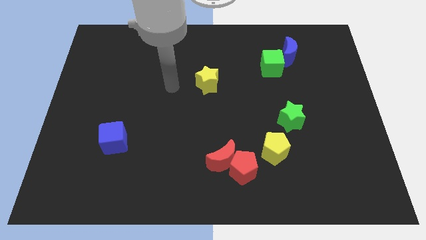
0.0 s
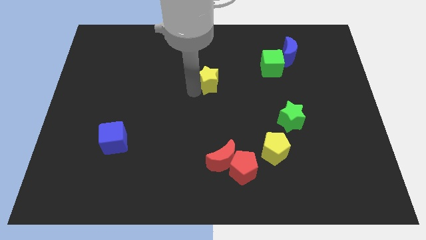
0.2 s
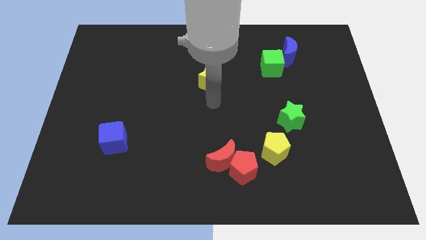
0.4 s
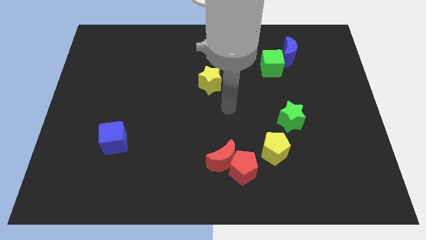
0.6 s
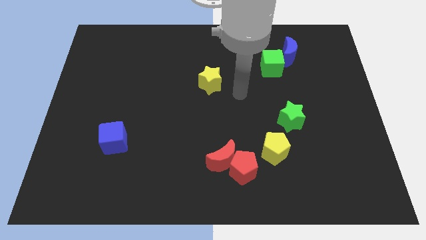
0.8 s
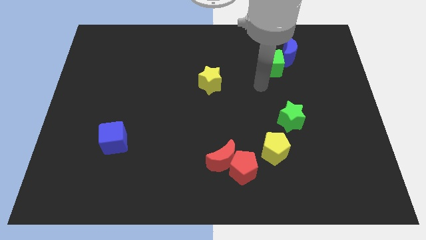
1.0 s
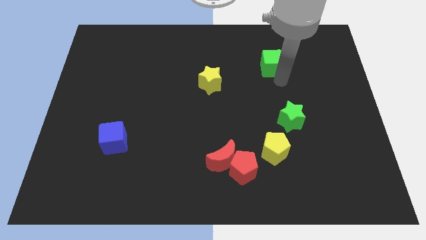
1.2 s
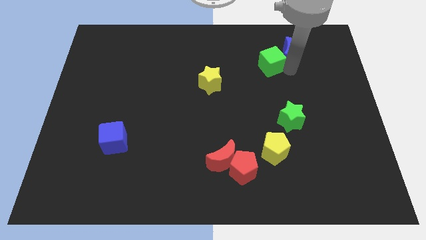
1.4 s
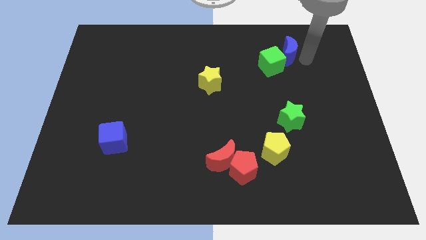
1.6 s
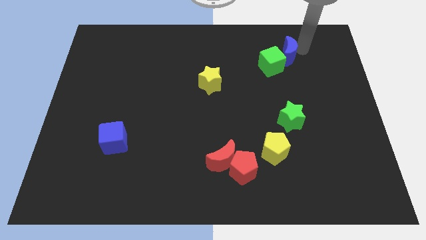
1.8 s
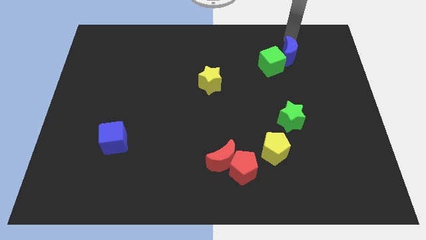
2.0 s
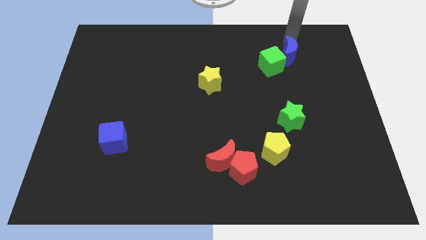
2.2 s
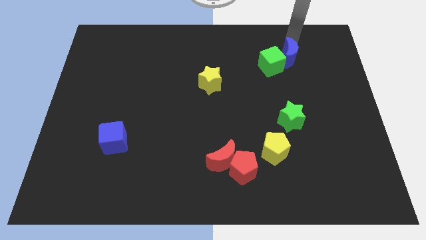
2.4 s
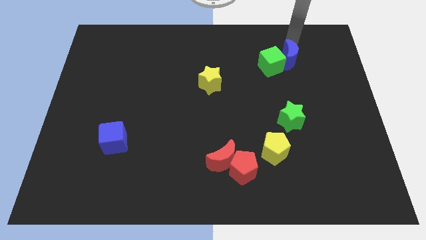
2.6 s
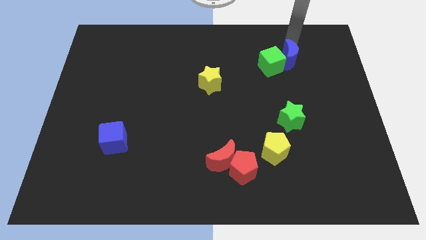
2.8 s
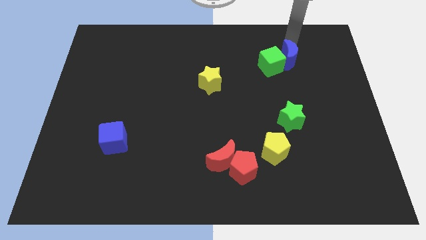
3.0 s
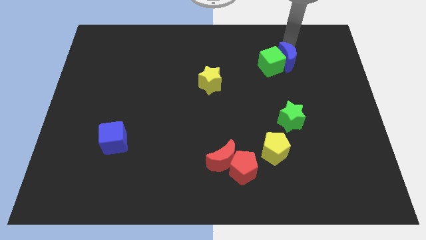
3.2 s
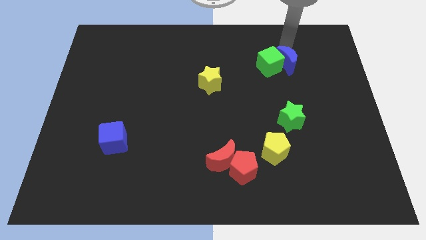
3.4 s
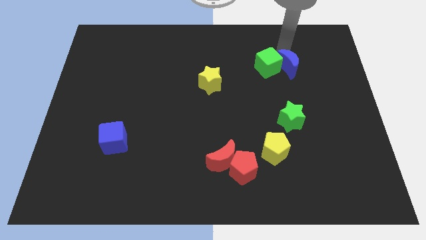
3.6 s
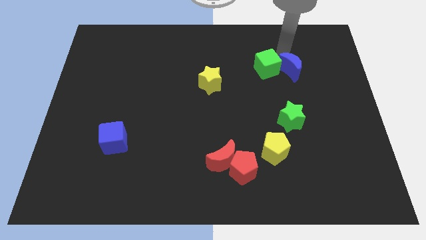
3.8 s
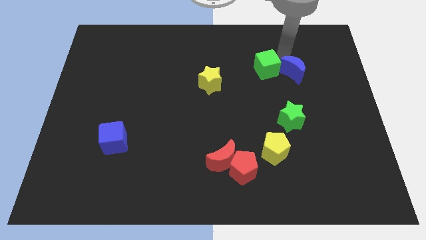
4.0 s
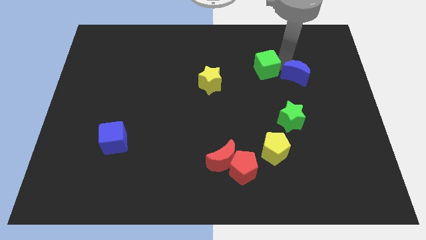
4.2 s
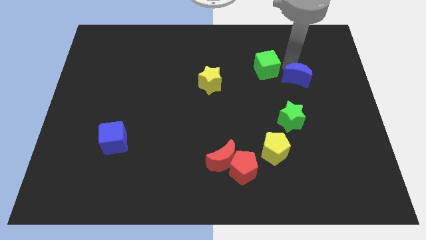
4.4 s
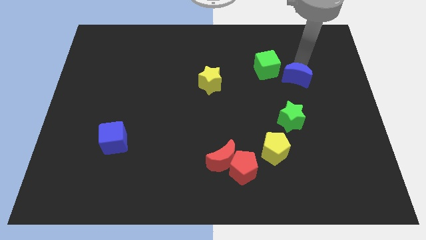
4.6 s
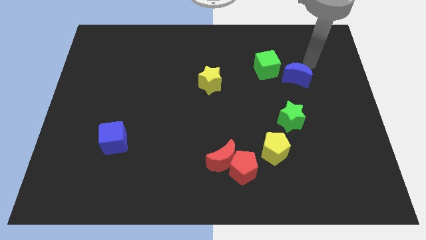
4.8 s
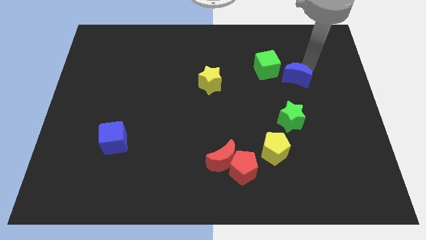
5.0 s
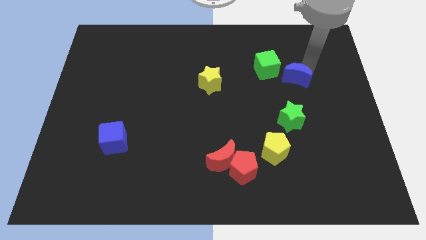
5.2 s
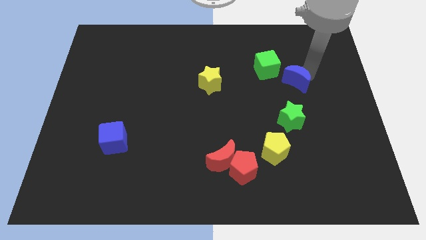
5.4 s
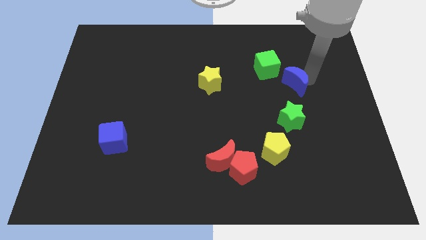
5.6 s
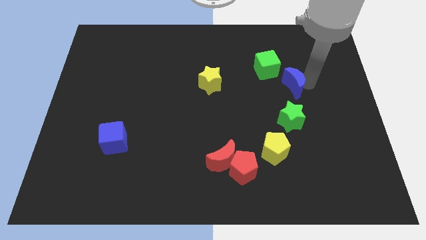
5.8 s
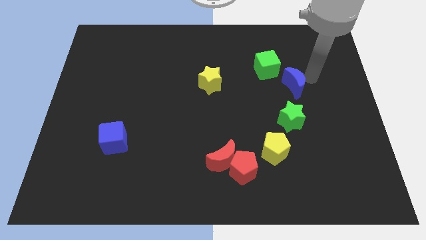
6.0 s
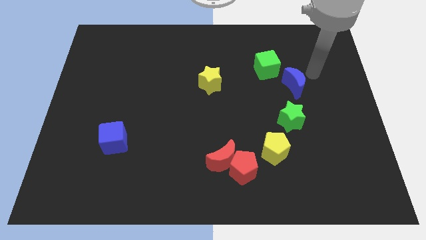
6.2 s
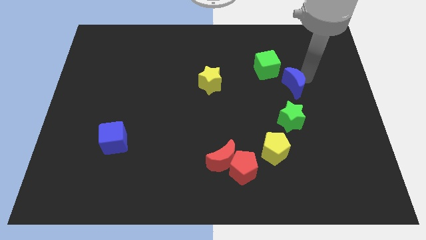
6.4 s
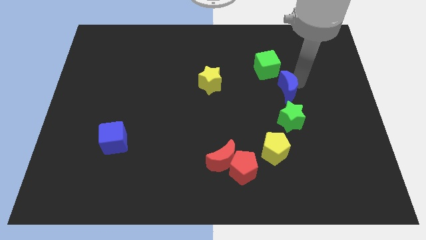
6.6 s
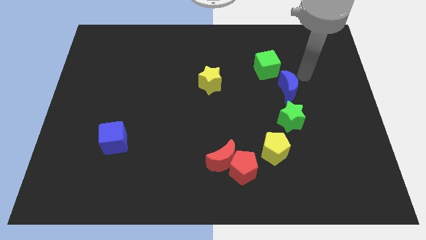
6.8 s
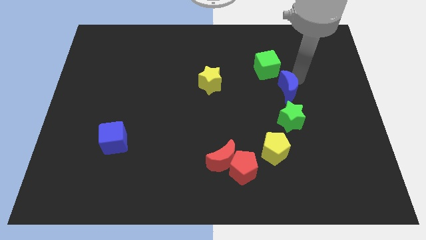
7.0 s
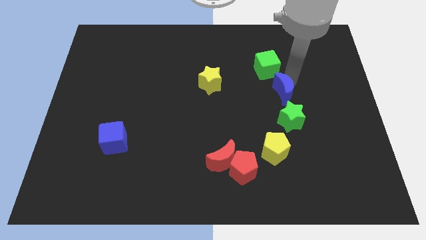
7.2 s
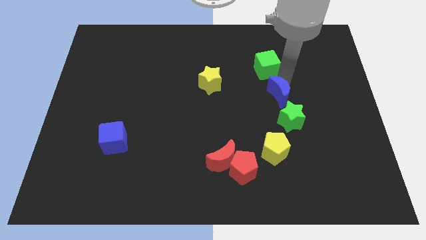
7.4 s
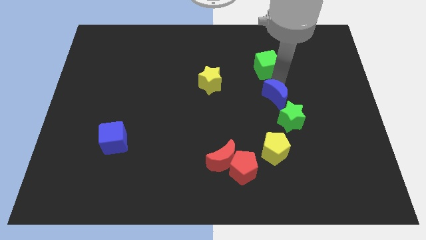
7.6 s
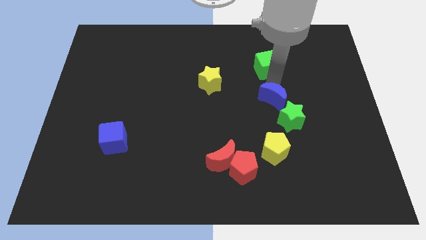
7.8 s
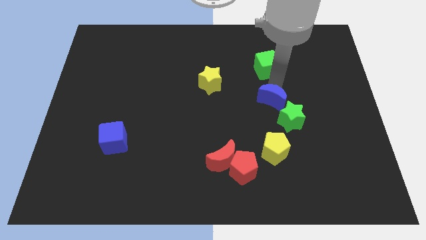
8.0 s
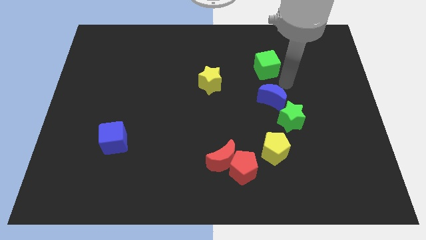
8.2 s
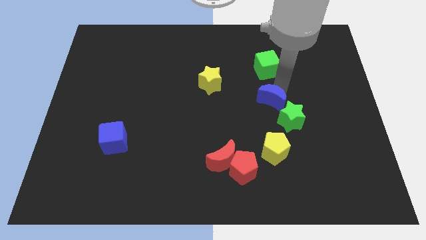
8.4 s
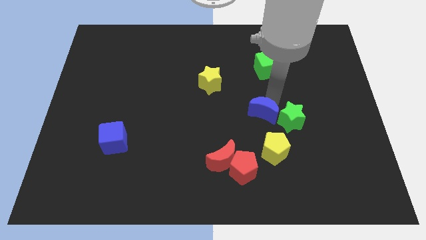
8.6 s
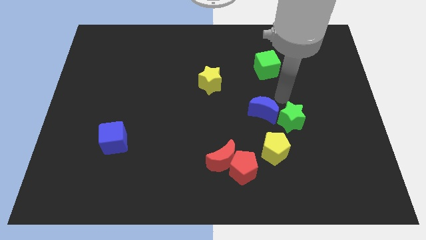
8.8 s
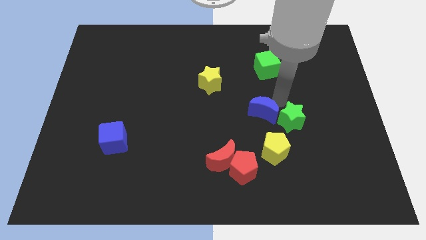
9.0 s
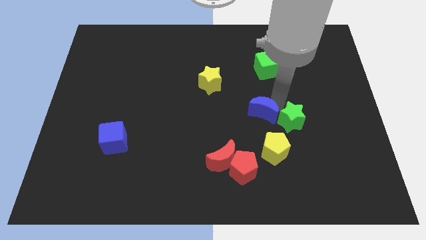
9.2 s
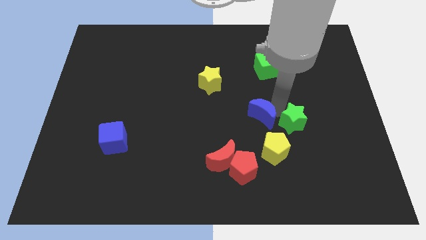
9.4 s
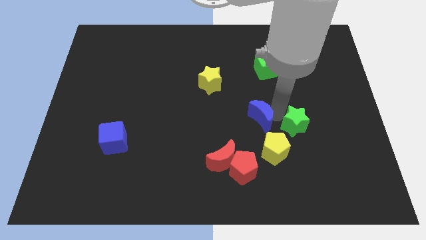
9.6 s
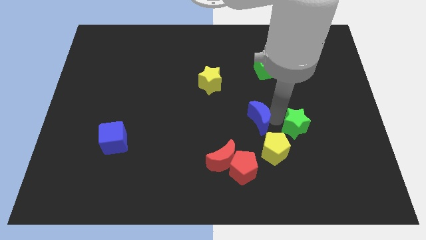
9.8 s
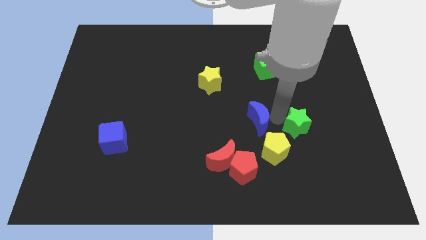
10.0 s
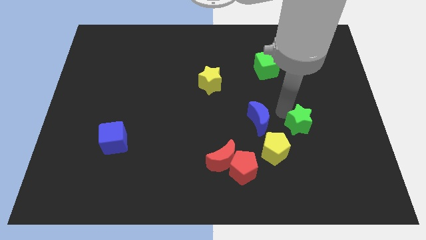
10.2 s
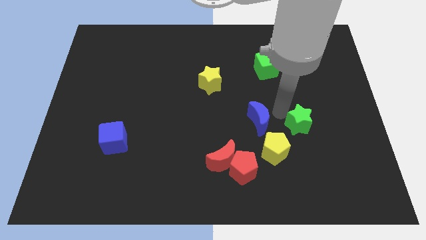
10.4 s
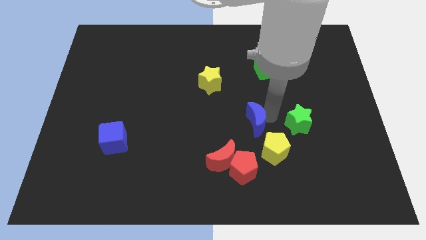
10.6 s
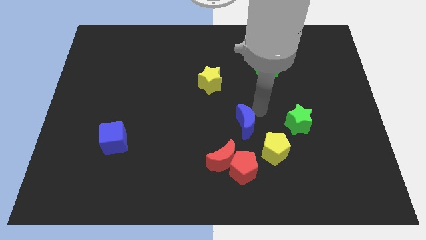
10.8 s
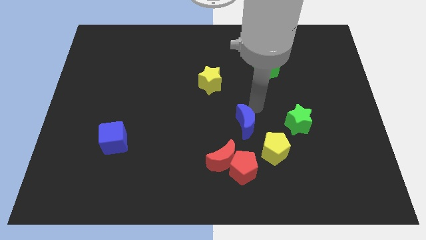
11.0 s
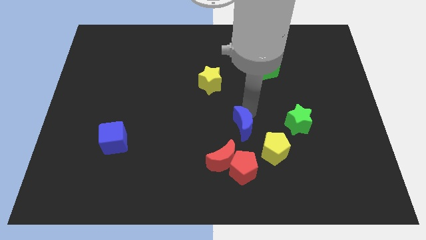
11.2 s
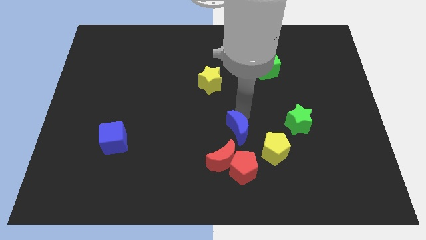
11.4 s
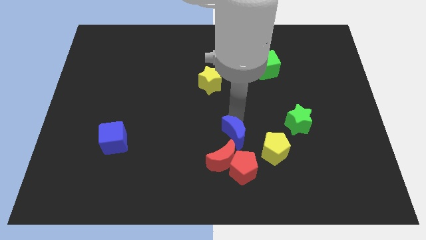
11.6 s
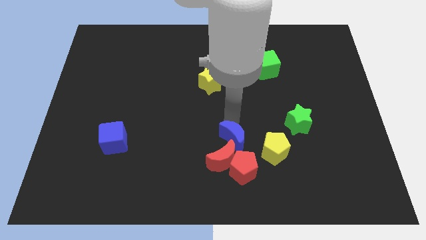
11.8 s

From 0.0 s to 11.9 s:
slide the blue moon close to the red moon
